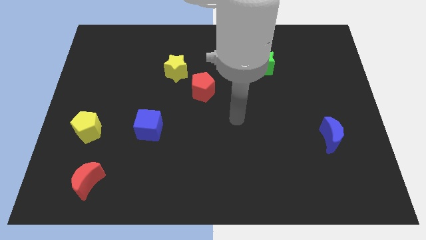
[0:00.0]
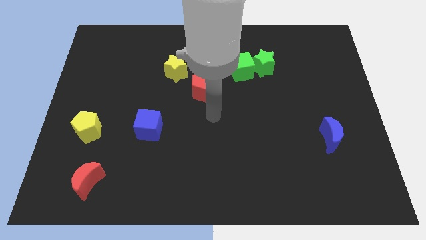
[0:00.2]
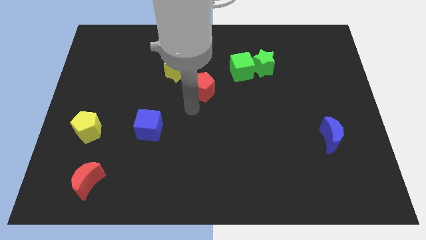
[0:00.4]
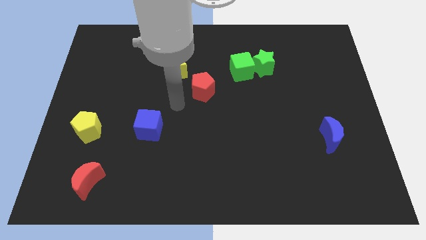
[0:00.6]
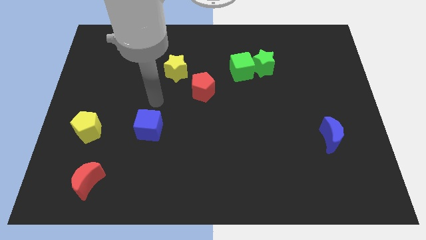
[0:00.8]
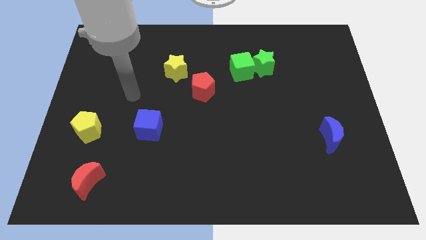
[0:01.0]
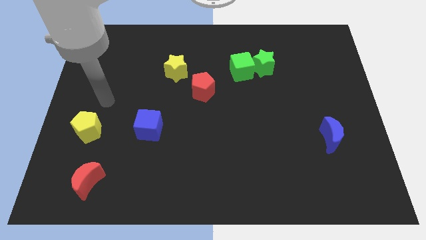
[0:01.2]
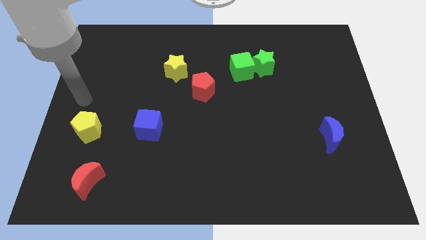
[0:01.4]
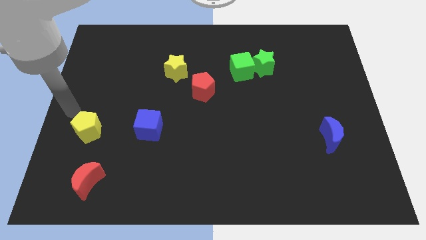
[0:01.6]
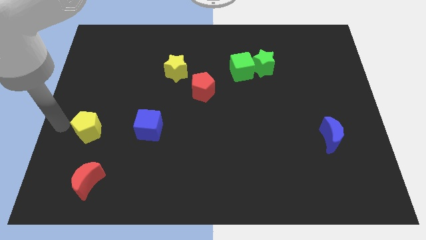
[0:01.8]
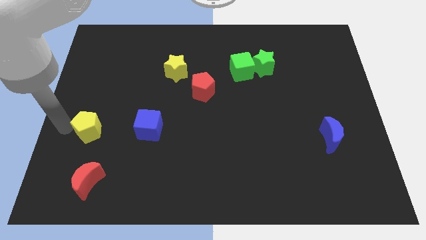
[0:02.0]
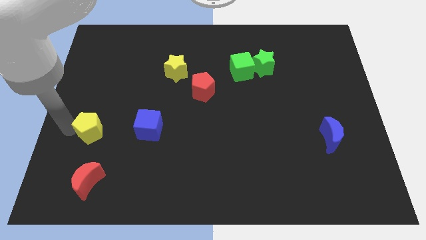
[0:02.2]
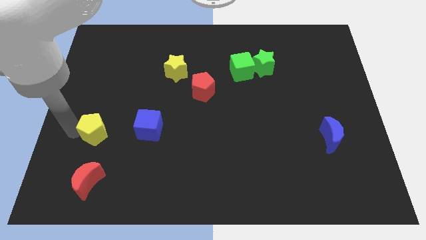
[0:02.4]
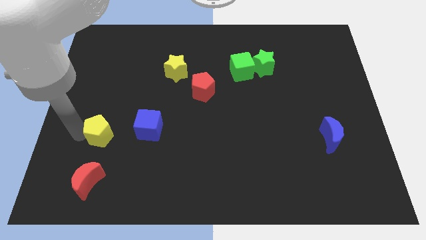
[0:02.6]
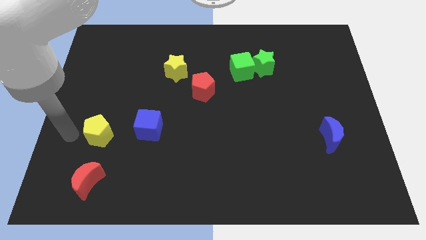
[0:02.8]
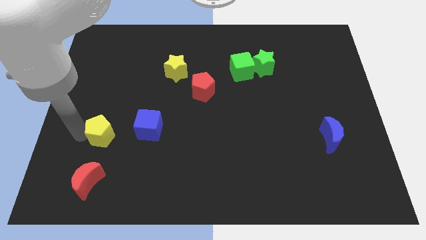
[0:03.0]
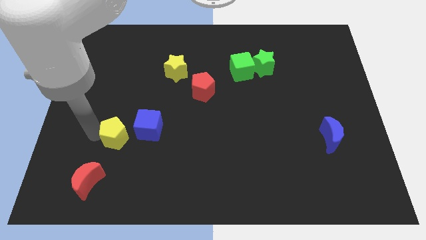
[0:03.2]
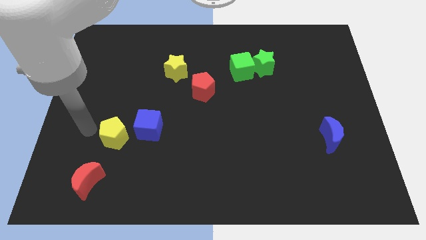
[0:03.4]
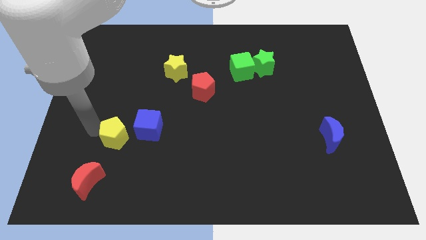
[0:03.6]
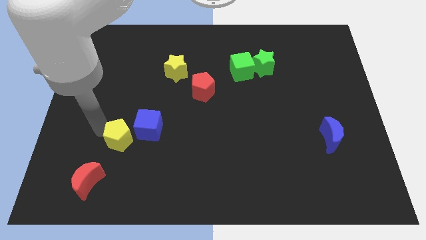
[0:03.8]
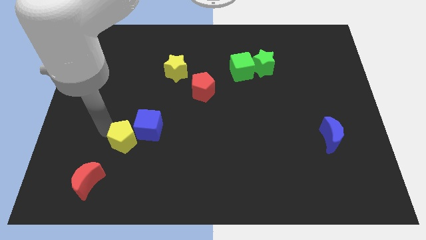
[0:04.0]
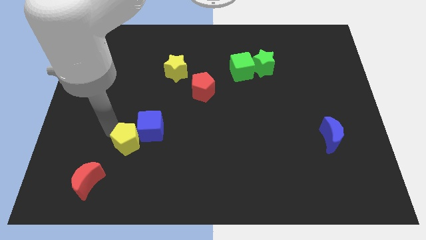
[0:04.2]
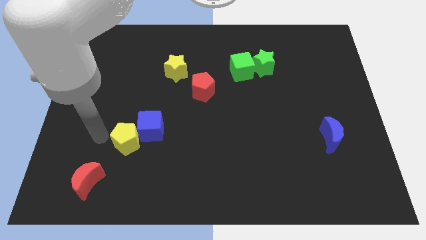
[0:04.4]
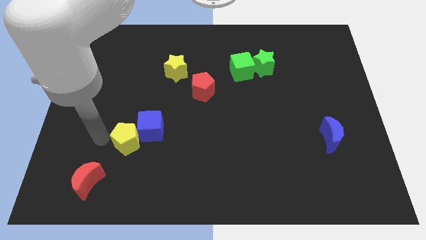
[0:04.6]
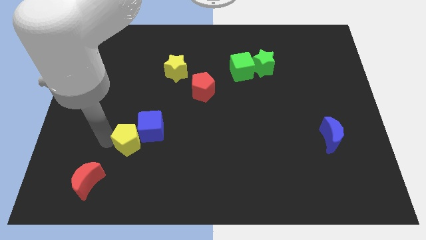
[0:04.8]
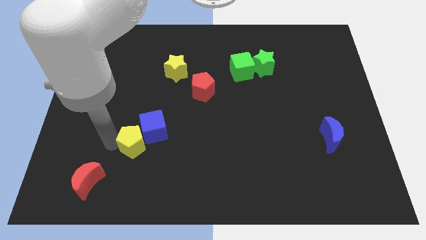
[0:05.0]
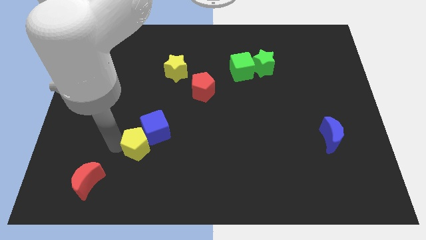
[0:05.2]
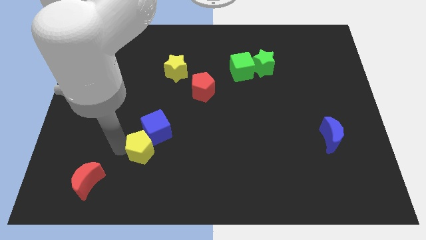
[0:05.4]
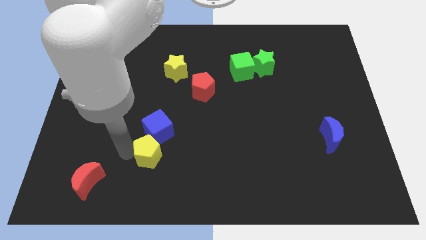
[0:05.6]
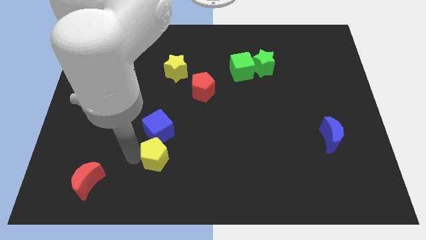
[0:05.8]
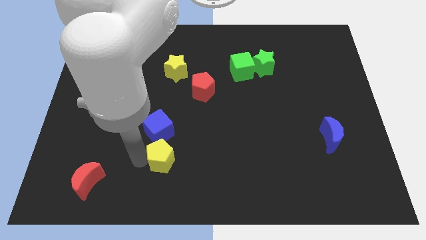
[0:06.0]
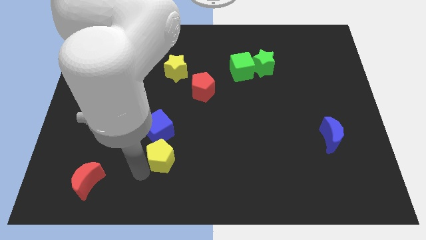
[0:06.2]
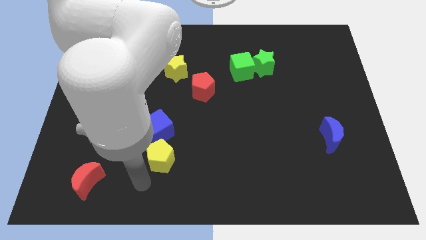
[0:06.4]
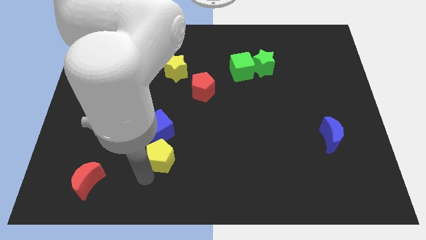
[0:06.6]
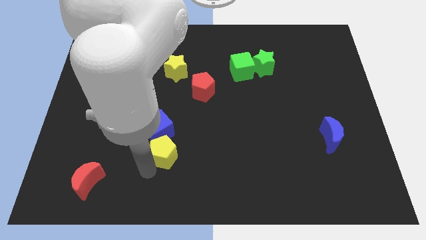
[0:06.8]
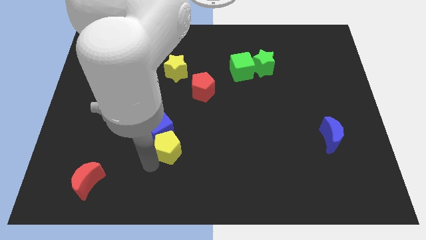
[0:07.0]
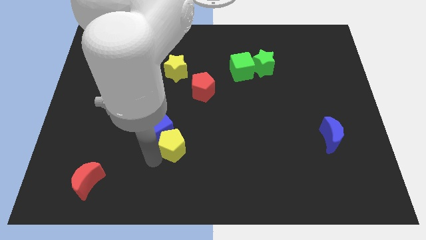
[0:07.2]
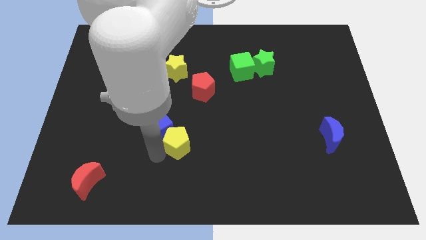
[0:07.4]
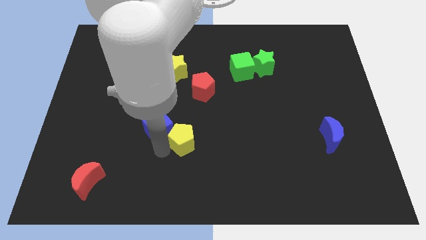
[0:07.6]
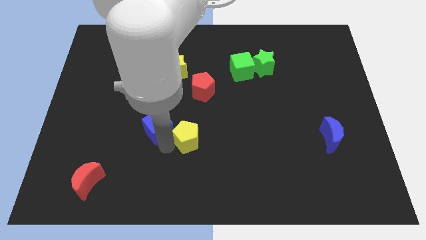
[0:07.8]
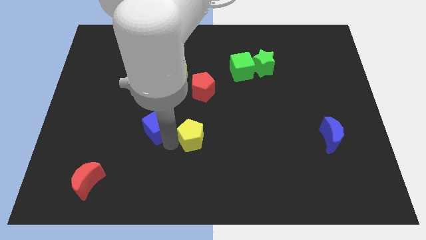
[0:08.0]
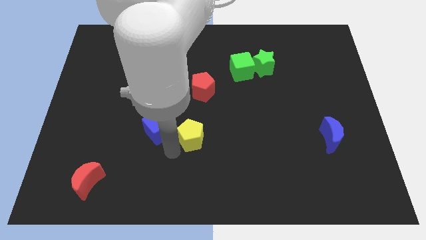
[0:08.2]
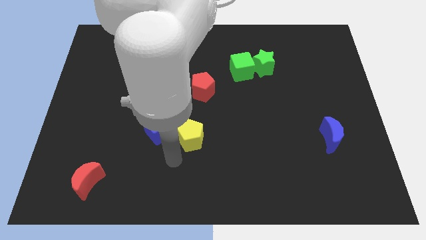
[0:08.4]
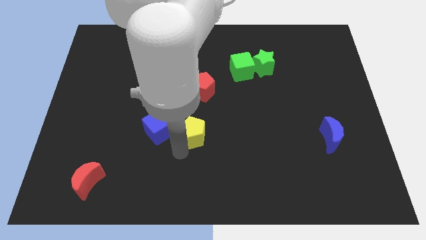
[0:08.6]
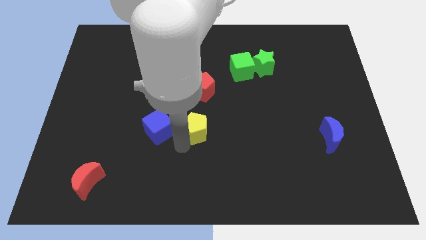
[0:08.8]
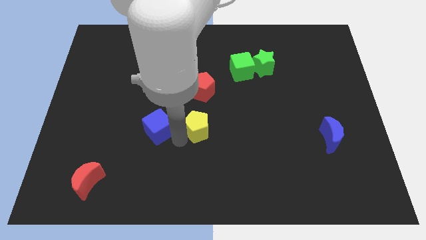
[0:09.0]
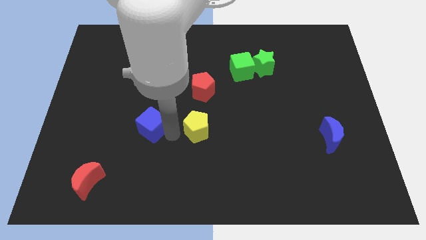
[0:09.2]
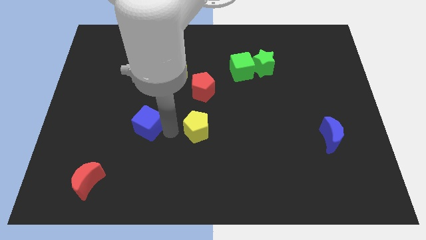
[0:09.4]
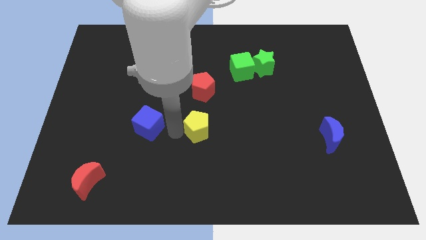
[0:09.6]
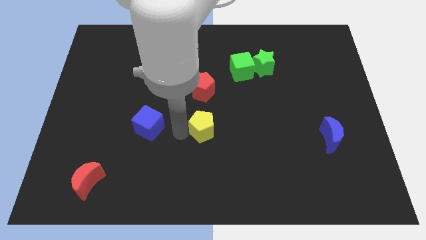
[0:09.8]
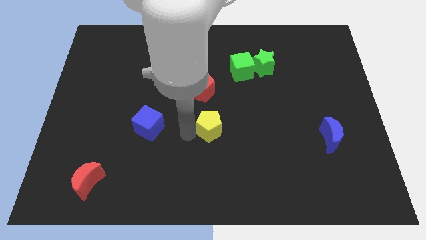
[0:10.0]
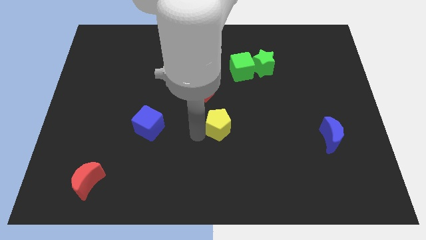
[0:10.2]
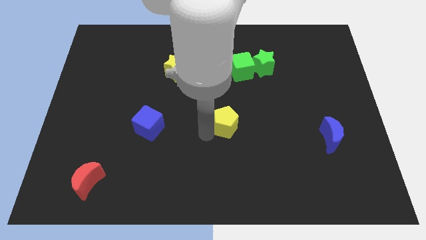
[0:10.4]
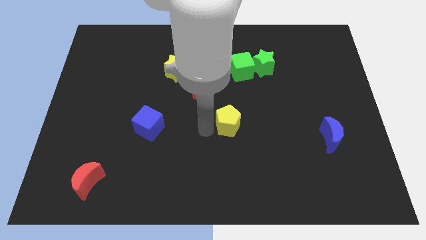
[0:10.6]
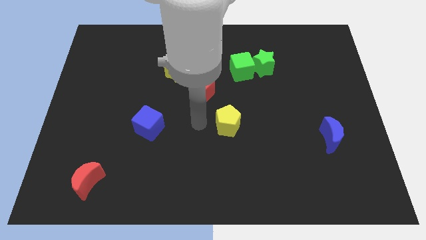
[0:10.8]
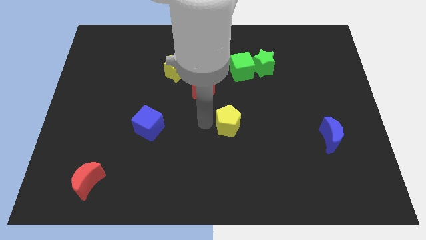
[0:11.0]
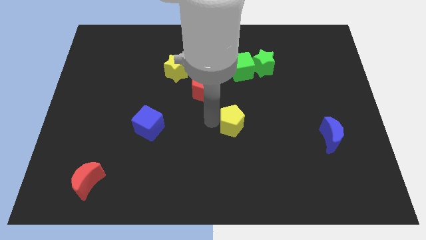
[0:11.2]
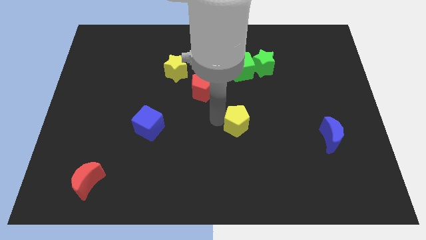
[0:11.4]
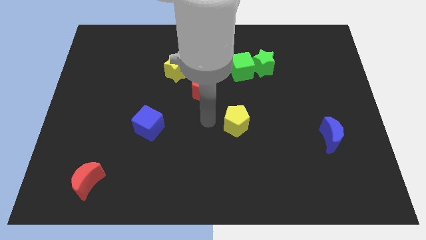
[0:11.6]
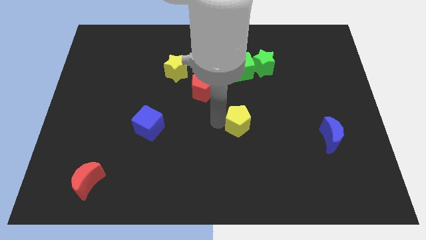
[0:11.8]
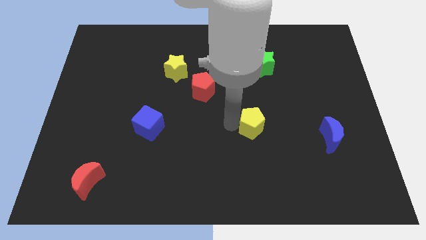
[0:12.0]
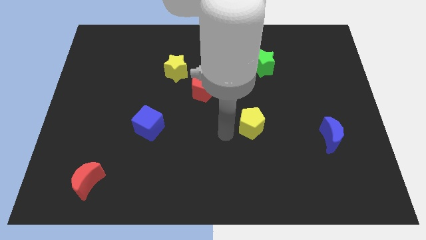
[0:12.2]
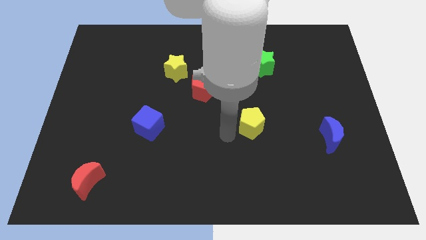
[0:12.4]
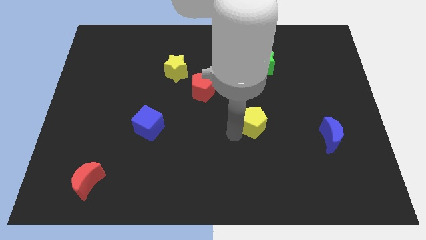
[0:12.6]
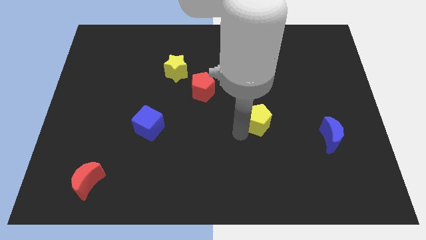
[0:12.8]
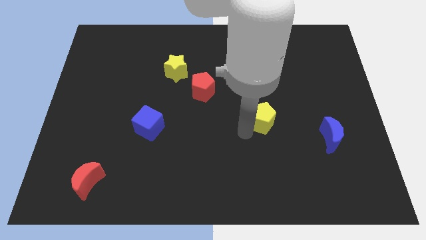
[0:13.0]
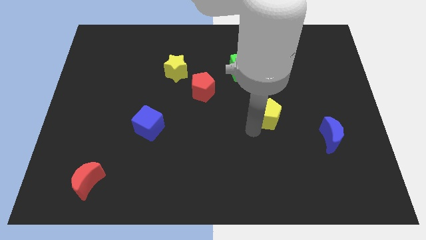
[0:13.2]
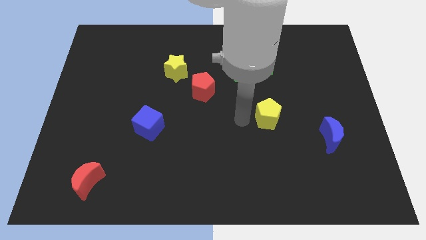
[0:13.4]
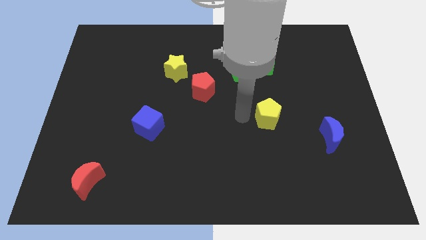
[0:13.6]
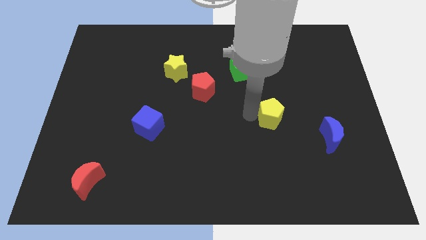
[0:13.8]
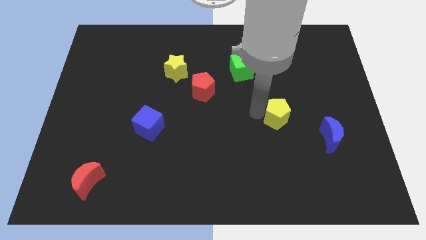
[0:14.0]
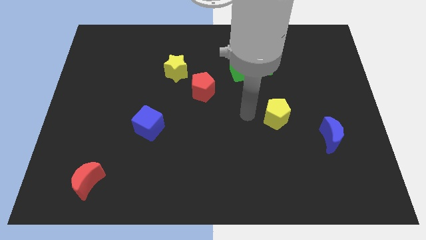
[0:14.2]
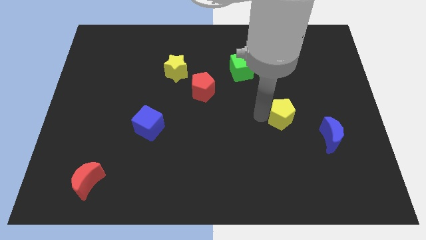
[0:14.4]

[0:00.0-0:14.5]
push the yellow pentagon to the top left side of the blue moon
